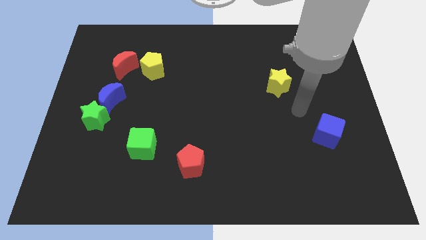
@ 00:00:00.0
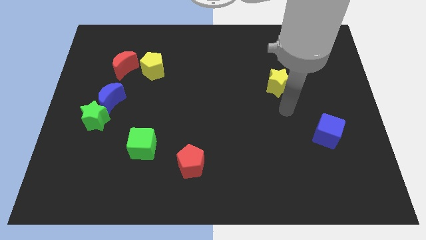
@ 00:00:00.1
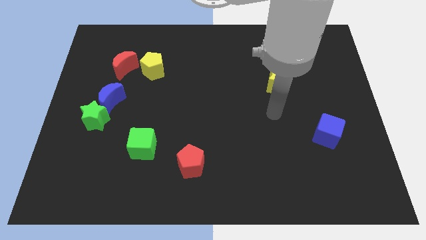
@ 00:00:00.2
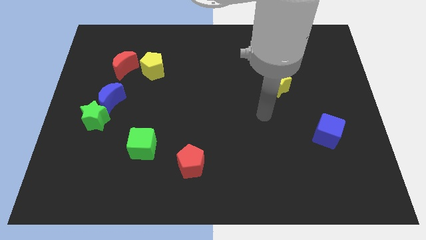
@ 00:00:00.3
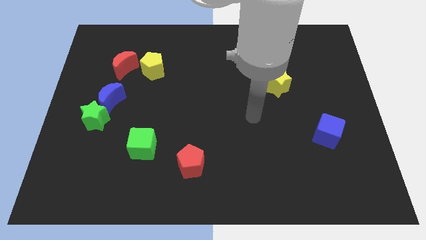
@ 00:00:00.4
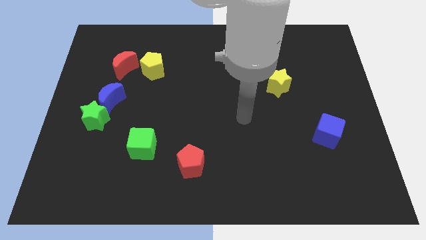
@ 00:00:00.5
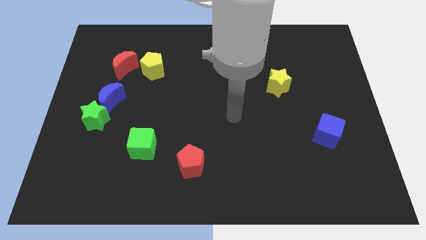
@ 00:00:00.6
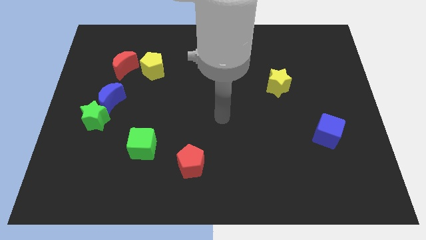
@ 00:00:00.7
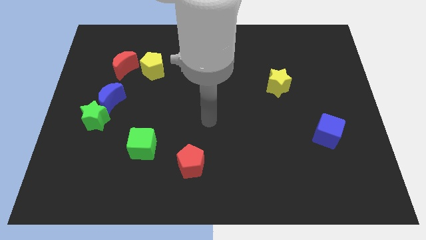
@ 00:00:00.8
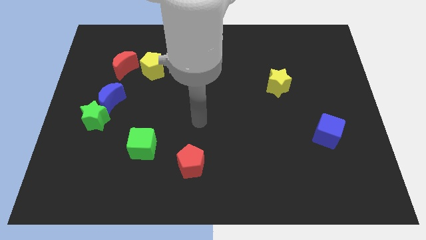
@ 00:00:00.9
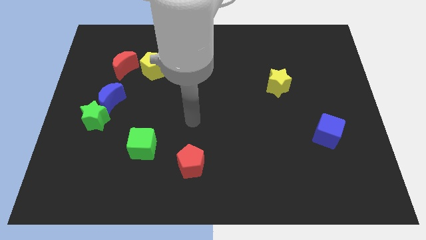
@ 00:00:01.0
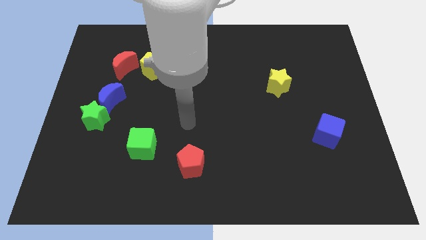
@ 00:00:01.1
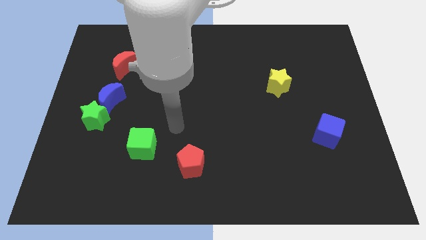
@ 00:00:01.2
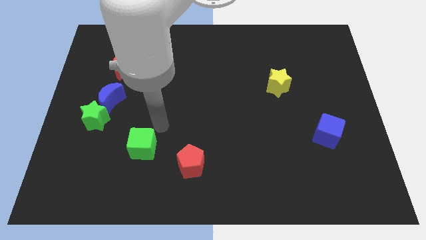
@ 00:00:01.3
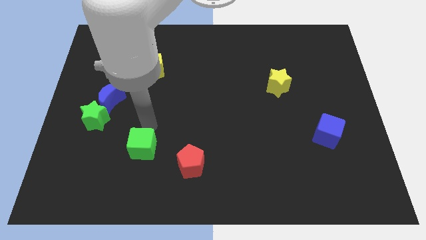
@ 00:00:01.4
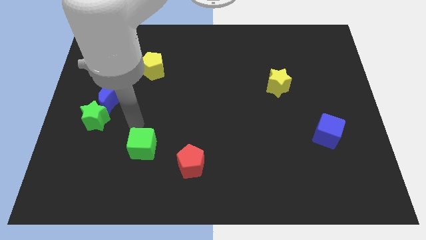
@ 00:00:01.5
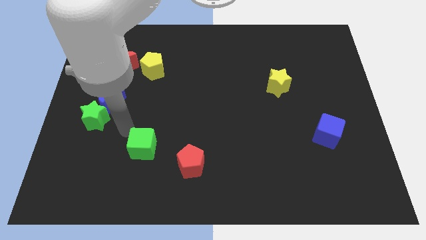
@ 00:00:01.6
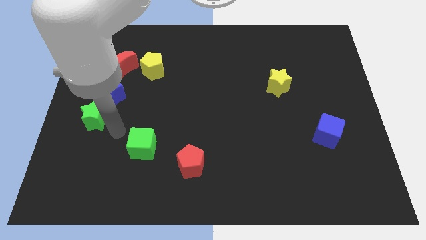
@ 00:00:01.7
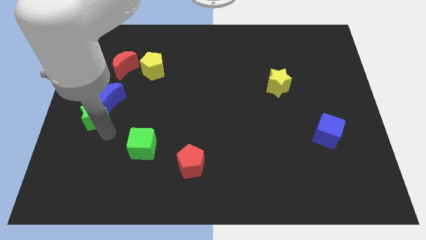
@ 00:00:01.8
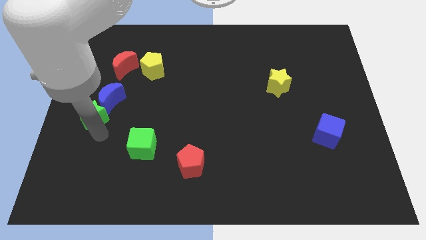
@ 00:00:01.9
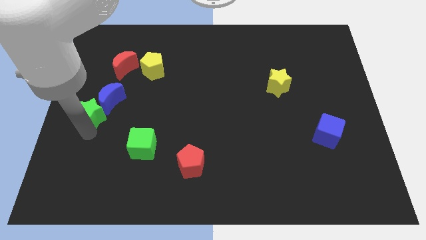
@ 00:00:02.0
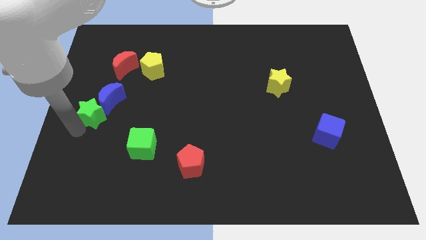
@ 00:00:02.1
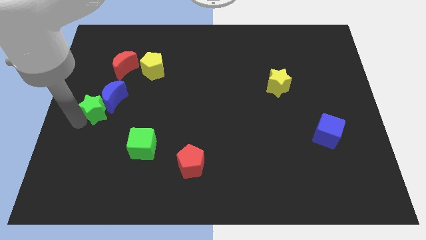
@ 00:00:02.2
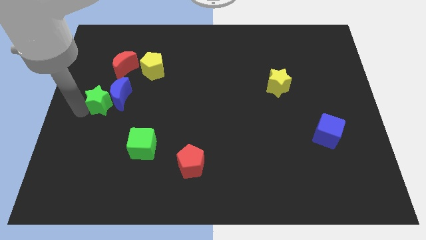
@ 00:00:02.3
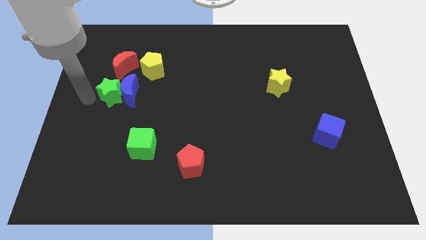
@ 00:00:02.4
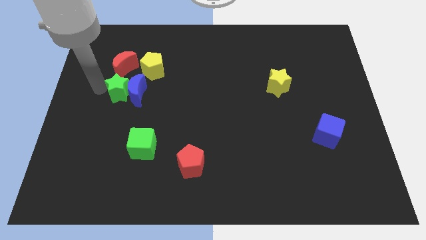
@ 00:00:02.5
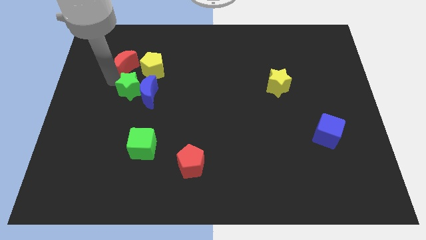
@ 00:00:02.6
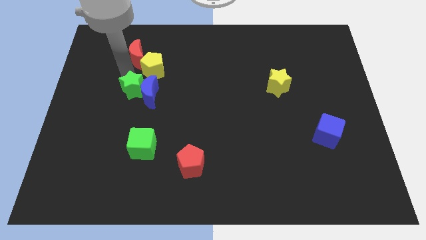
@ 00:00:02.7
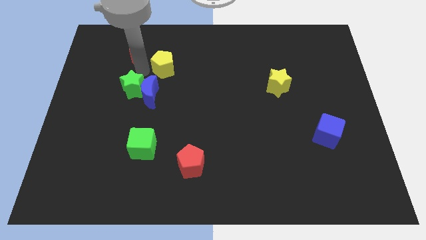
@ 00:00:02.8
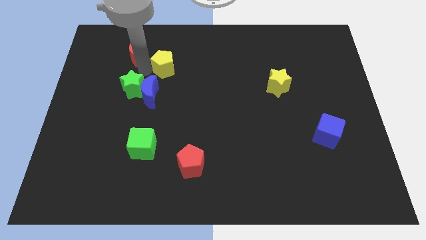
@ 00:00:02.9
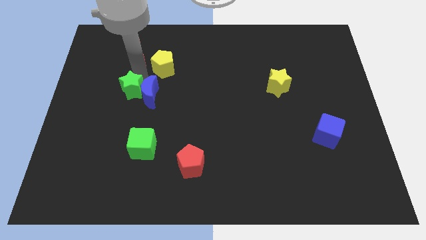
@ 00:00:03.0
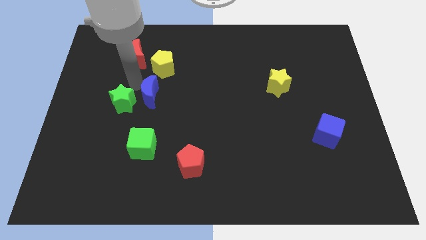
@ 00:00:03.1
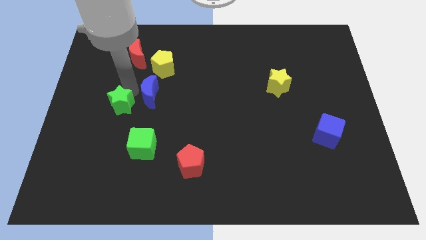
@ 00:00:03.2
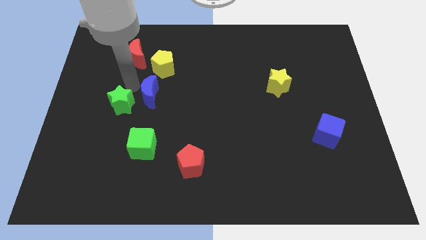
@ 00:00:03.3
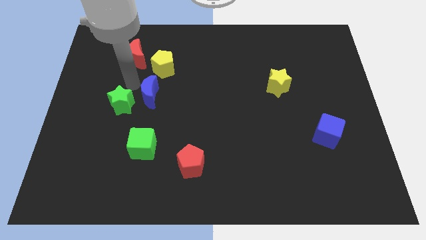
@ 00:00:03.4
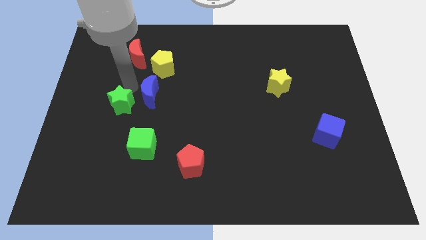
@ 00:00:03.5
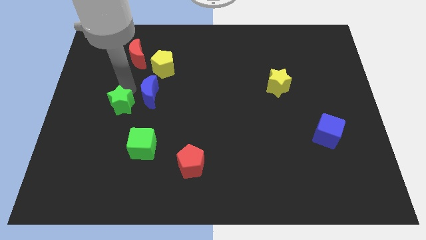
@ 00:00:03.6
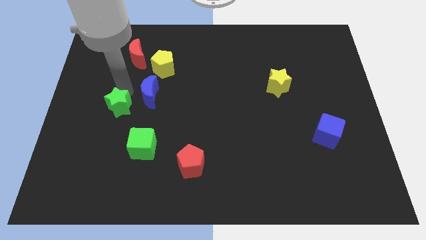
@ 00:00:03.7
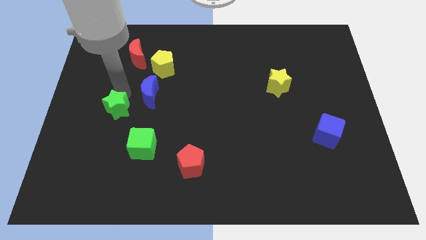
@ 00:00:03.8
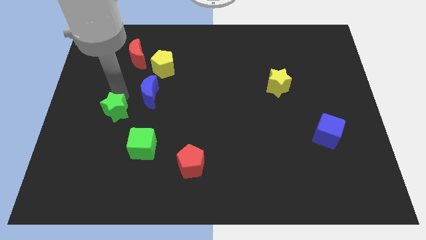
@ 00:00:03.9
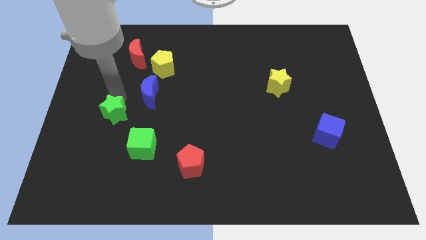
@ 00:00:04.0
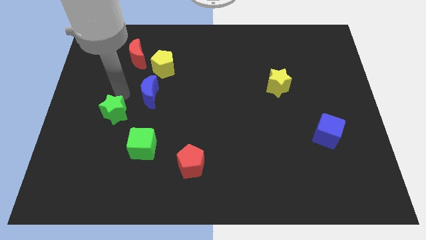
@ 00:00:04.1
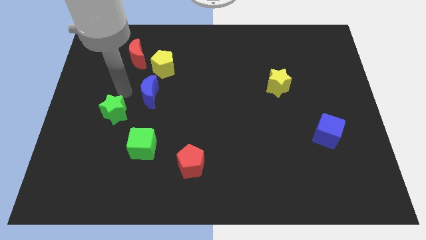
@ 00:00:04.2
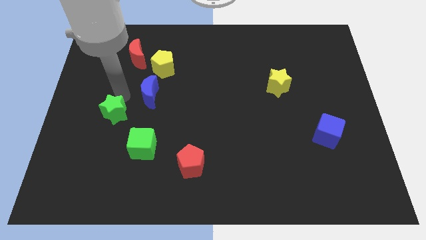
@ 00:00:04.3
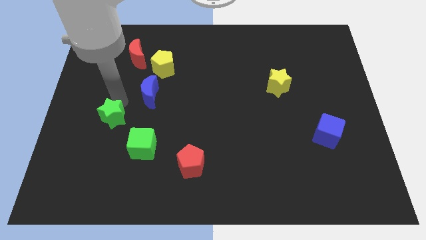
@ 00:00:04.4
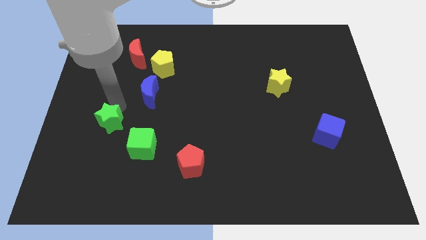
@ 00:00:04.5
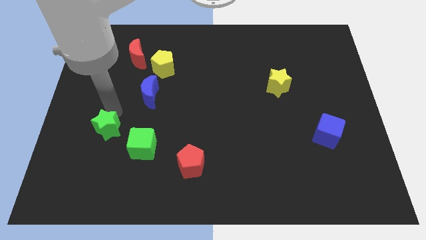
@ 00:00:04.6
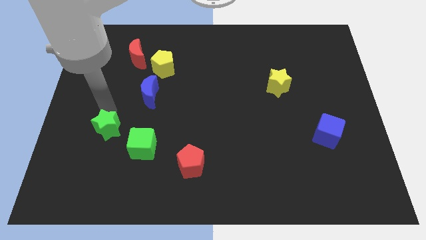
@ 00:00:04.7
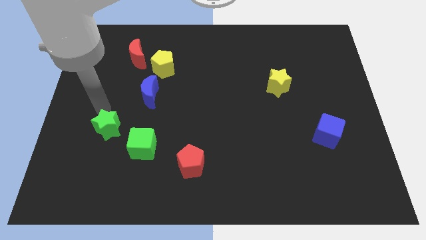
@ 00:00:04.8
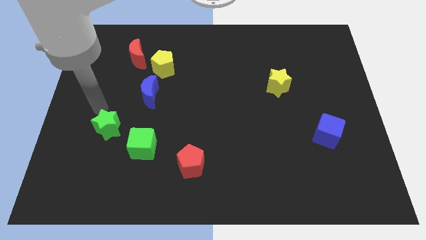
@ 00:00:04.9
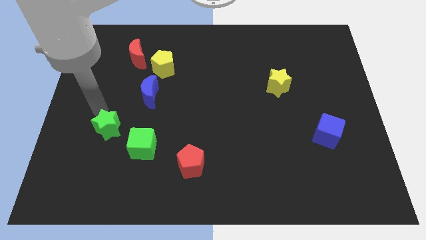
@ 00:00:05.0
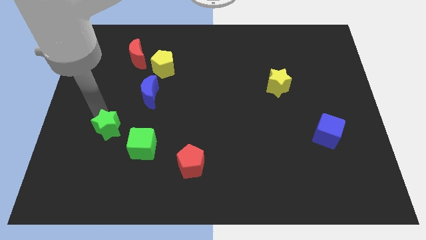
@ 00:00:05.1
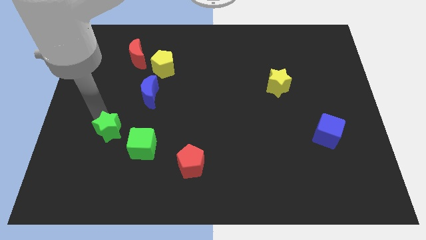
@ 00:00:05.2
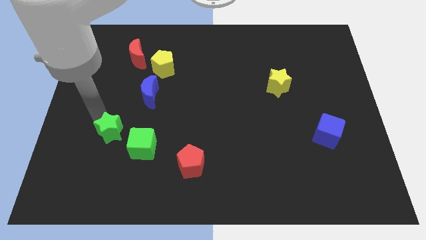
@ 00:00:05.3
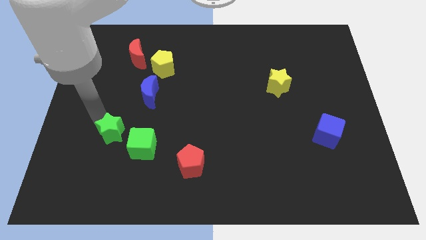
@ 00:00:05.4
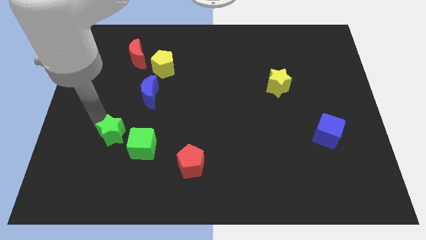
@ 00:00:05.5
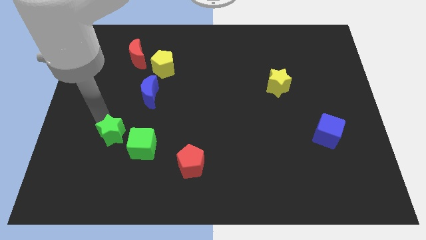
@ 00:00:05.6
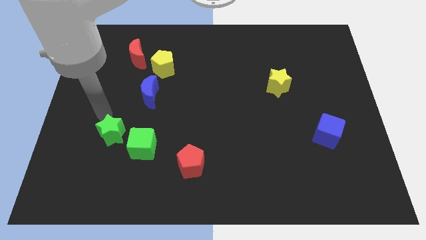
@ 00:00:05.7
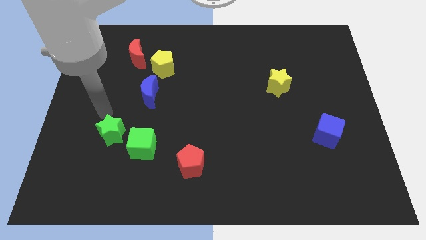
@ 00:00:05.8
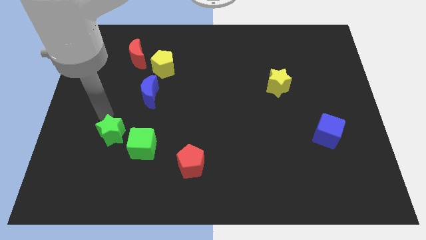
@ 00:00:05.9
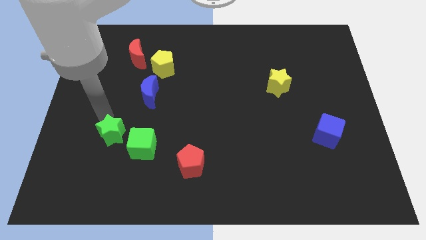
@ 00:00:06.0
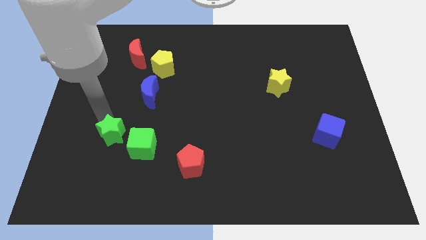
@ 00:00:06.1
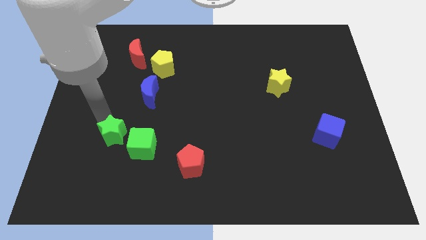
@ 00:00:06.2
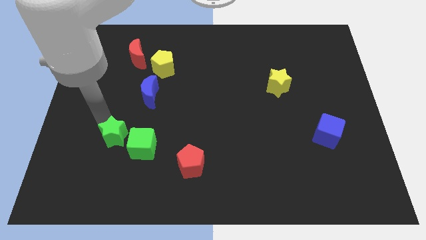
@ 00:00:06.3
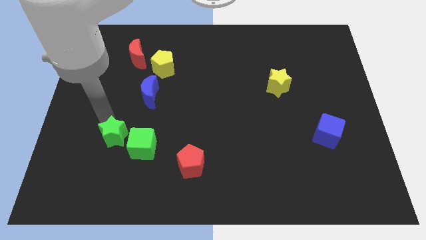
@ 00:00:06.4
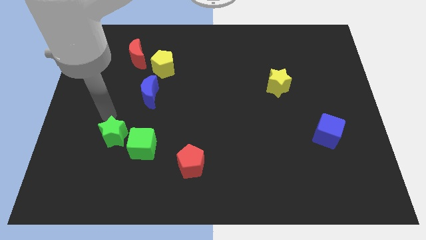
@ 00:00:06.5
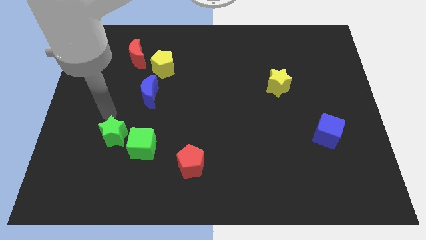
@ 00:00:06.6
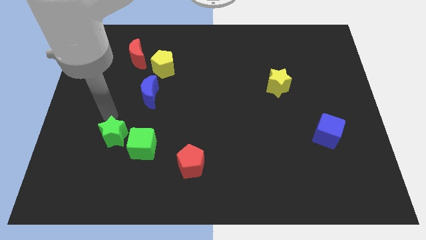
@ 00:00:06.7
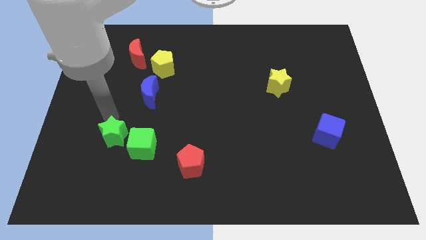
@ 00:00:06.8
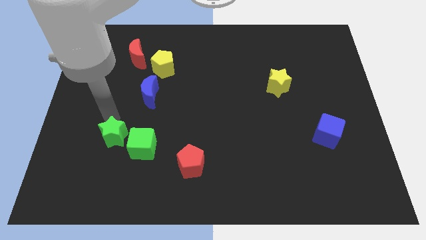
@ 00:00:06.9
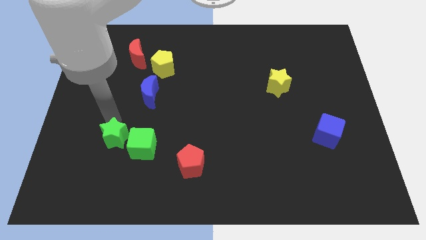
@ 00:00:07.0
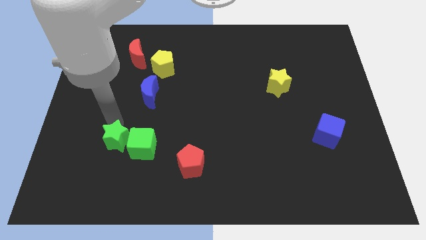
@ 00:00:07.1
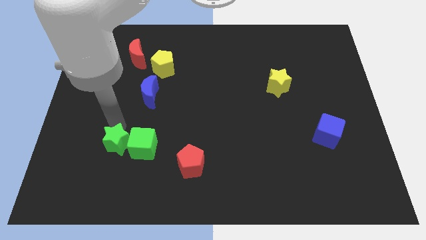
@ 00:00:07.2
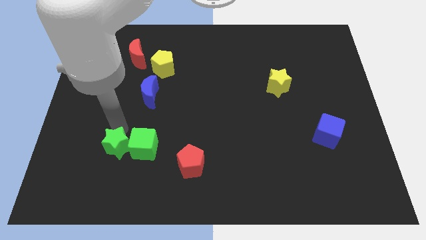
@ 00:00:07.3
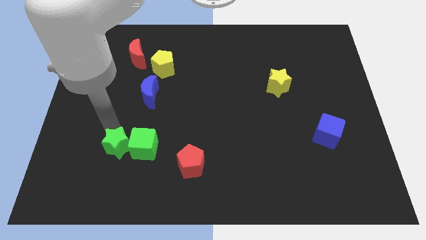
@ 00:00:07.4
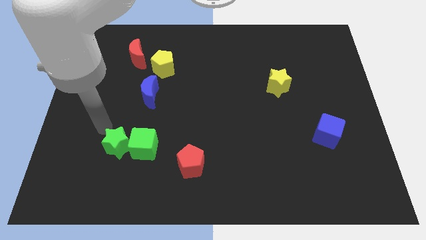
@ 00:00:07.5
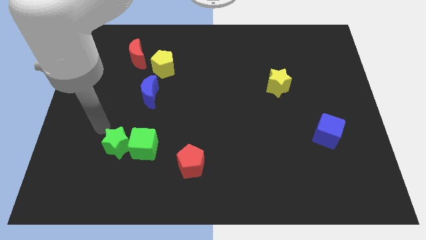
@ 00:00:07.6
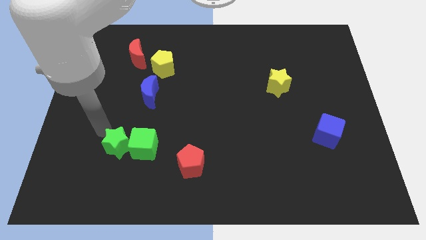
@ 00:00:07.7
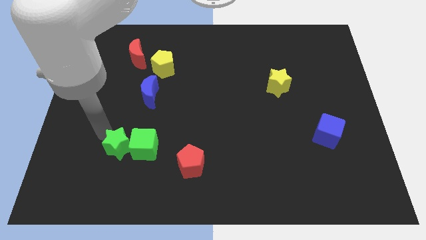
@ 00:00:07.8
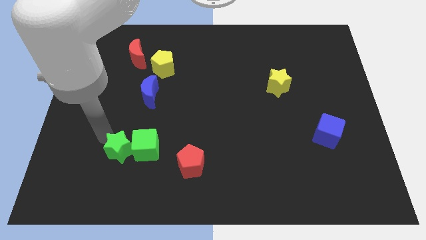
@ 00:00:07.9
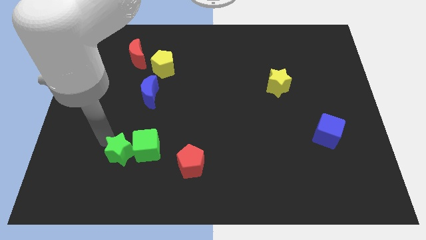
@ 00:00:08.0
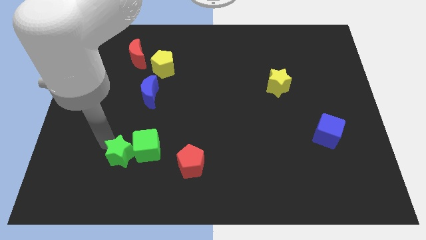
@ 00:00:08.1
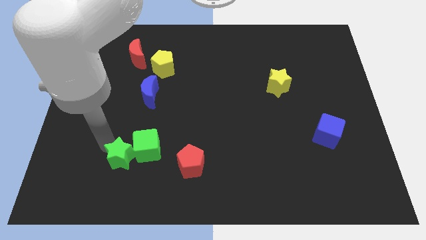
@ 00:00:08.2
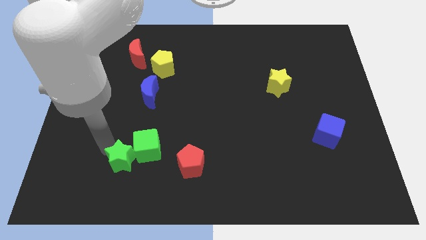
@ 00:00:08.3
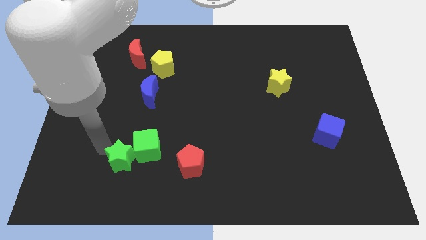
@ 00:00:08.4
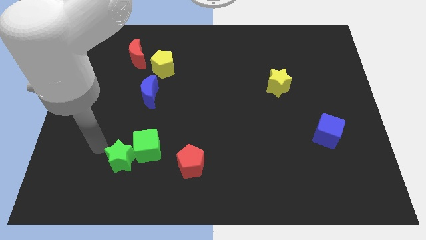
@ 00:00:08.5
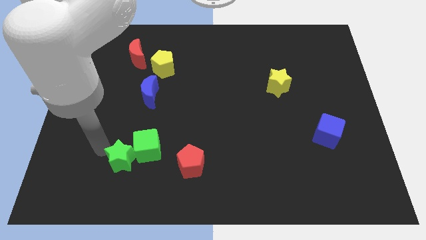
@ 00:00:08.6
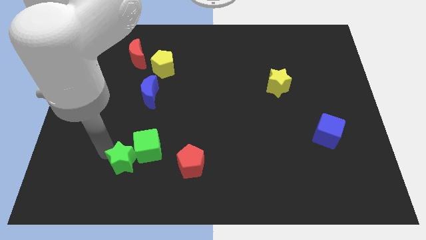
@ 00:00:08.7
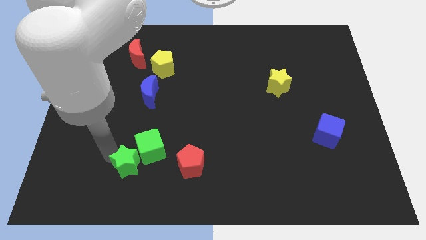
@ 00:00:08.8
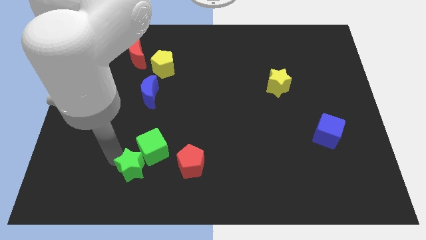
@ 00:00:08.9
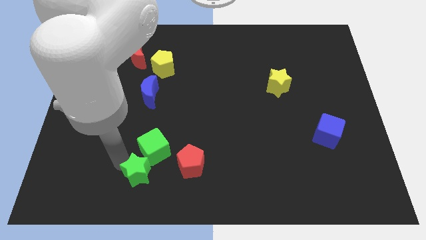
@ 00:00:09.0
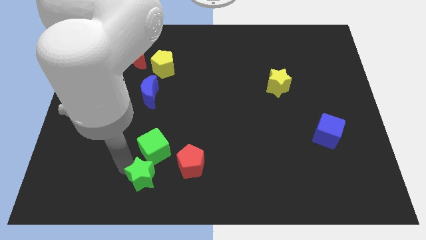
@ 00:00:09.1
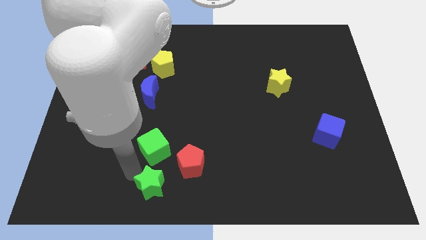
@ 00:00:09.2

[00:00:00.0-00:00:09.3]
push the green star to the bottom side
